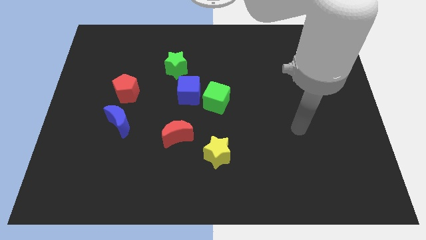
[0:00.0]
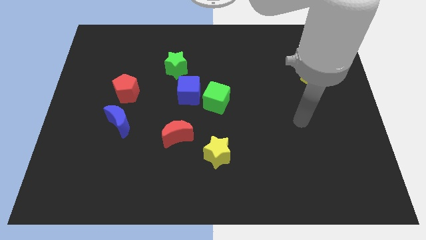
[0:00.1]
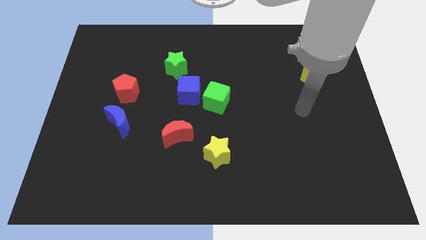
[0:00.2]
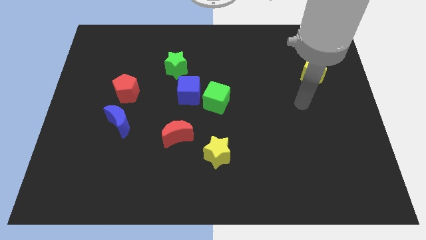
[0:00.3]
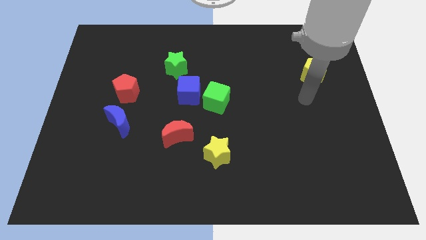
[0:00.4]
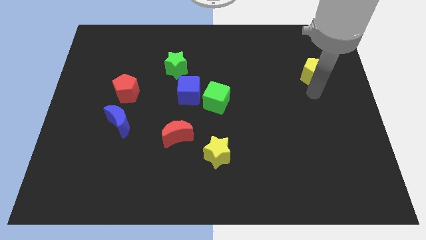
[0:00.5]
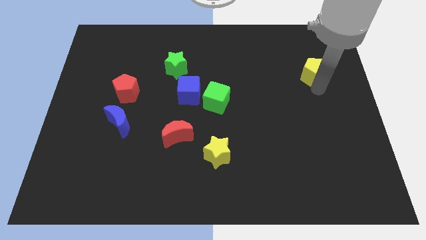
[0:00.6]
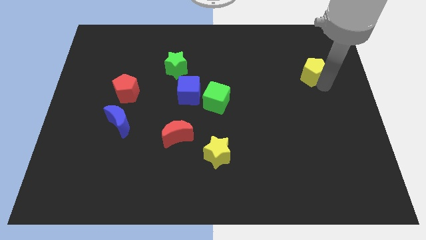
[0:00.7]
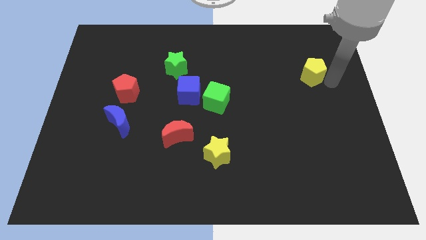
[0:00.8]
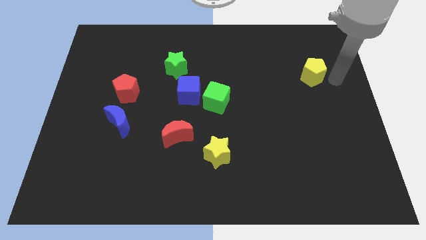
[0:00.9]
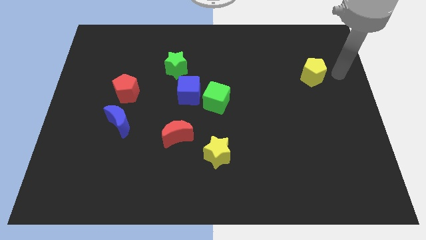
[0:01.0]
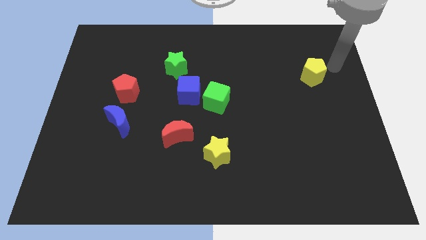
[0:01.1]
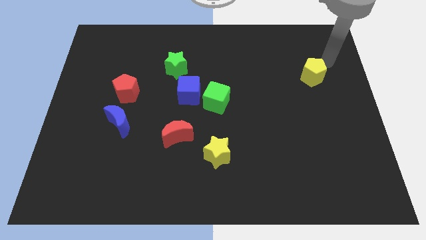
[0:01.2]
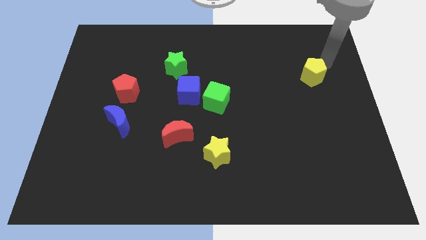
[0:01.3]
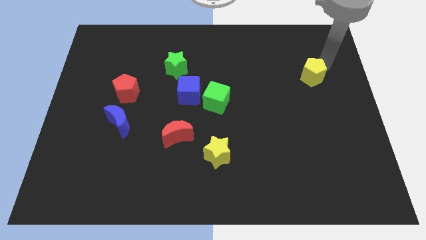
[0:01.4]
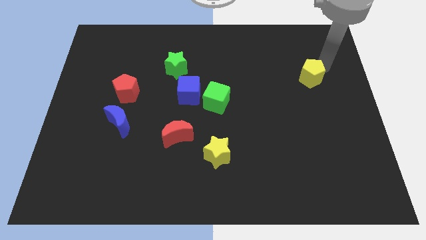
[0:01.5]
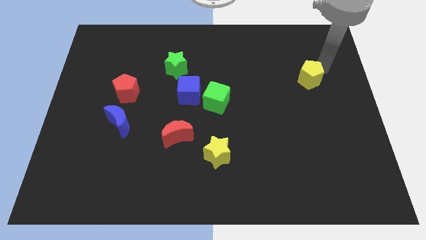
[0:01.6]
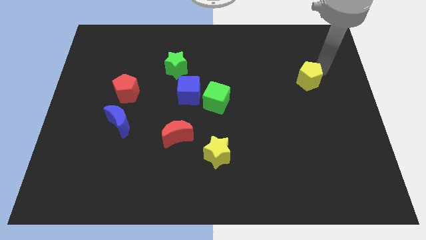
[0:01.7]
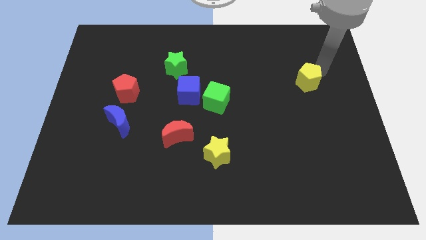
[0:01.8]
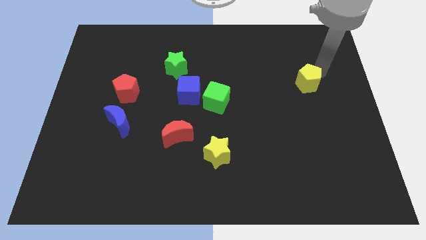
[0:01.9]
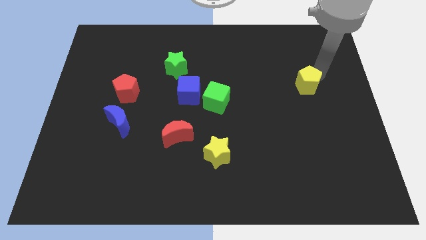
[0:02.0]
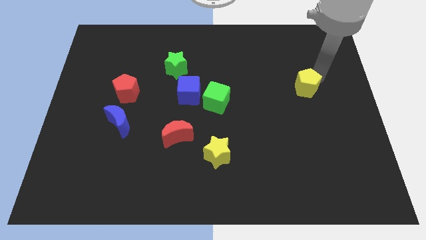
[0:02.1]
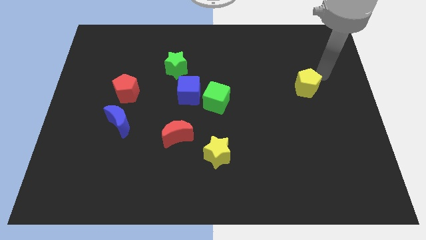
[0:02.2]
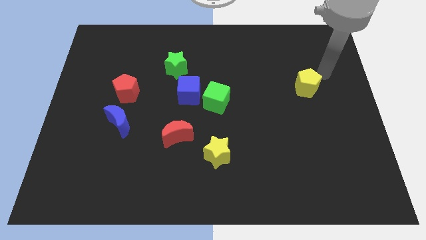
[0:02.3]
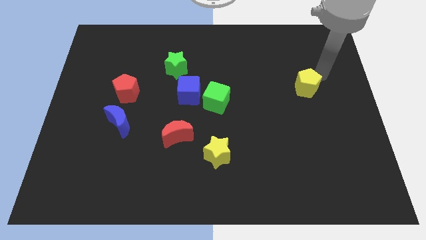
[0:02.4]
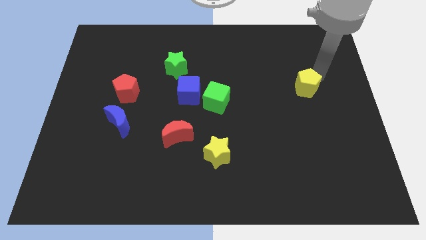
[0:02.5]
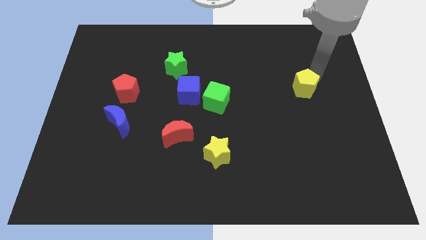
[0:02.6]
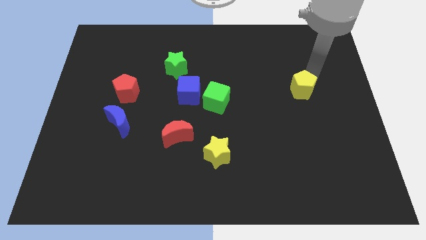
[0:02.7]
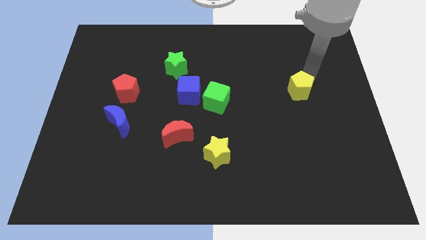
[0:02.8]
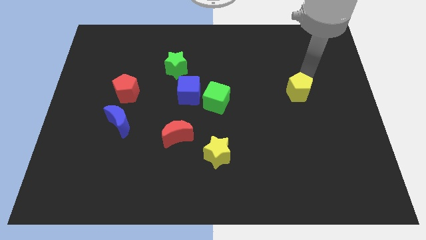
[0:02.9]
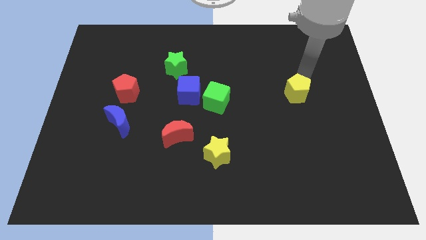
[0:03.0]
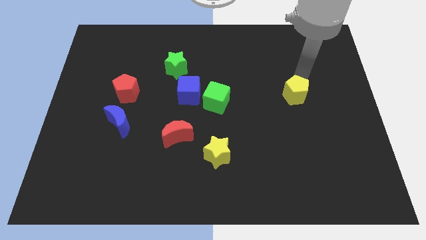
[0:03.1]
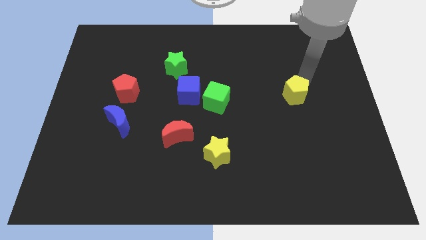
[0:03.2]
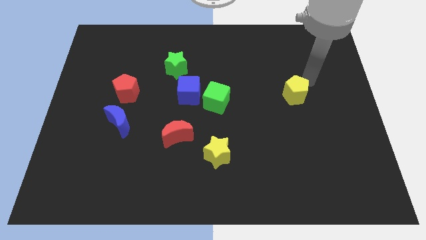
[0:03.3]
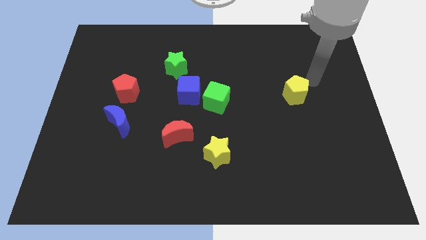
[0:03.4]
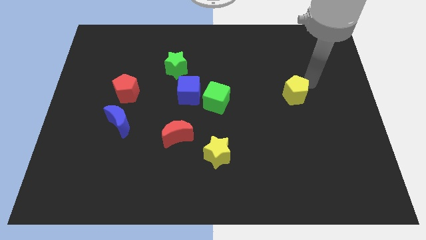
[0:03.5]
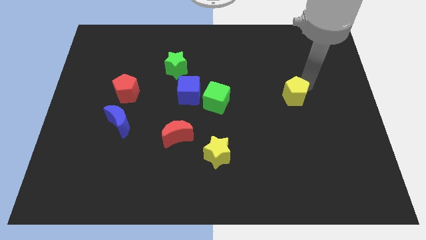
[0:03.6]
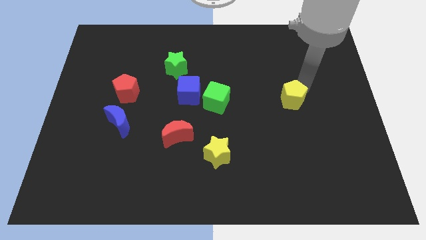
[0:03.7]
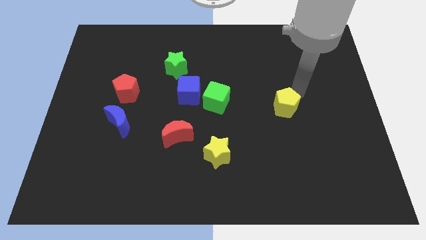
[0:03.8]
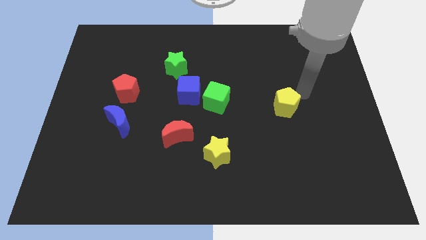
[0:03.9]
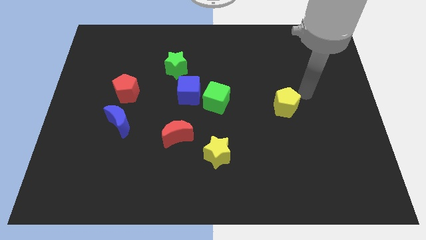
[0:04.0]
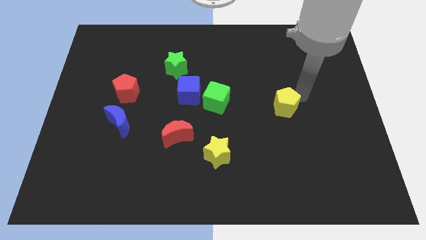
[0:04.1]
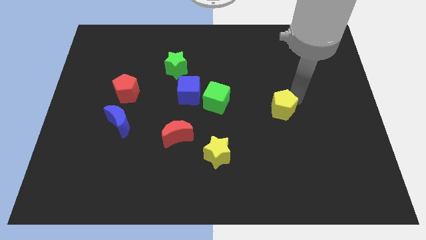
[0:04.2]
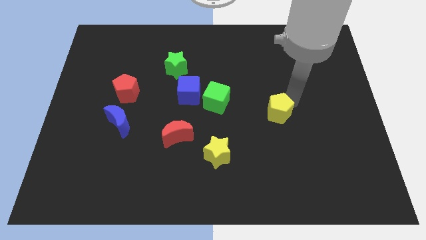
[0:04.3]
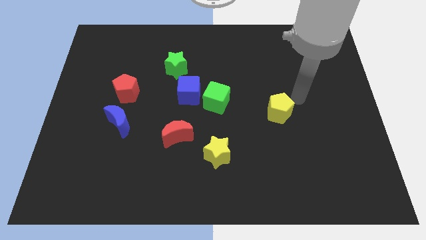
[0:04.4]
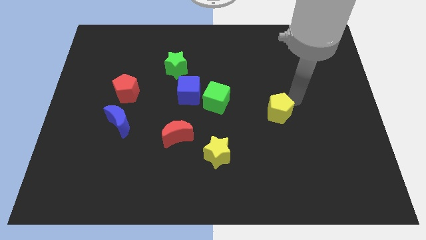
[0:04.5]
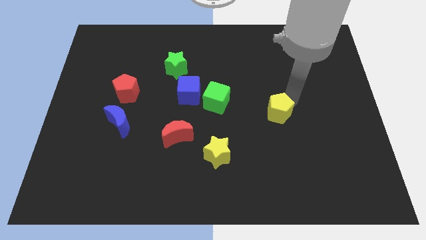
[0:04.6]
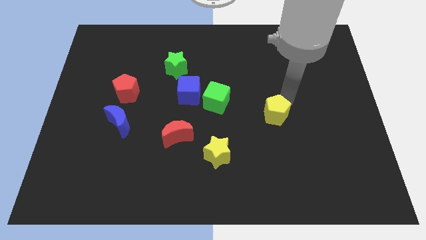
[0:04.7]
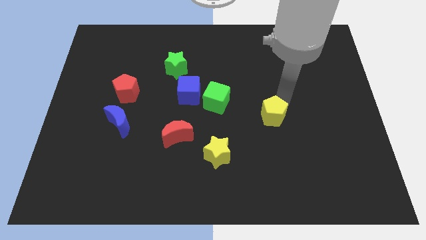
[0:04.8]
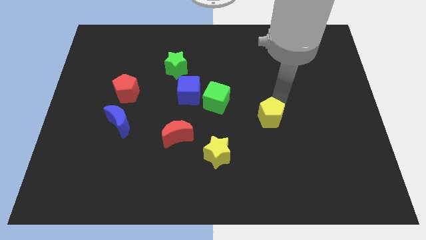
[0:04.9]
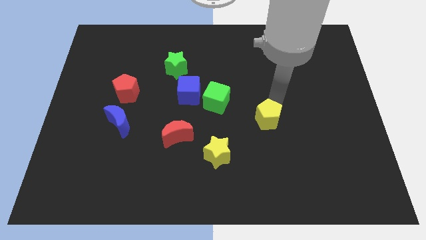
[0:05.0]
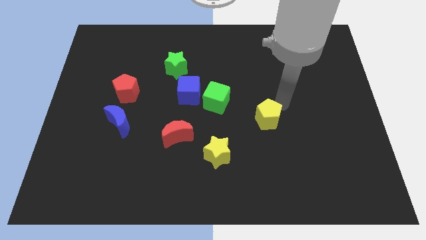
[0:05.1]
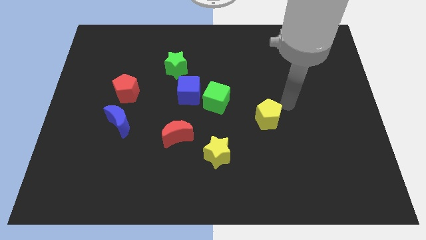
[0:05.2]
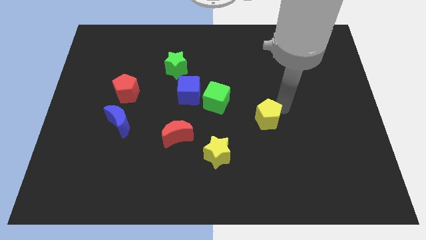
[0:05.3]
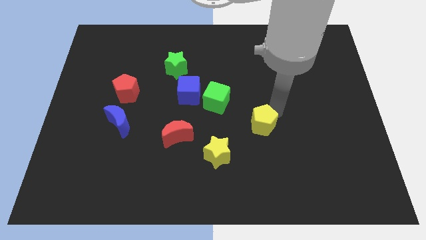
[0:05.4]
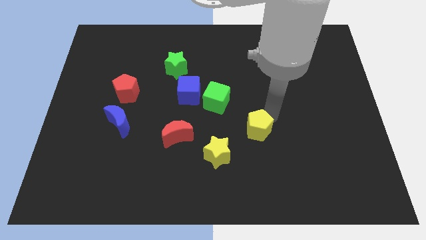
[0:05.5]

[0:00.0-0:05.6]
move the yellow pentagon to the top right of the yellow star

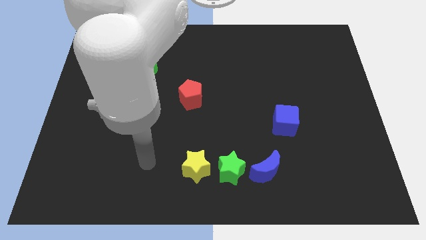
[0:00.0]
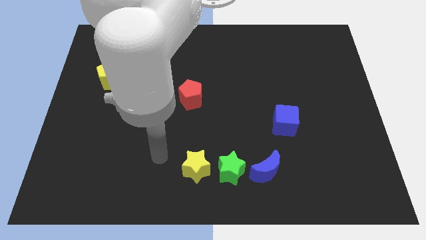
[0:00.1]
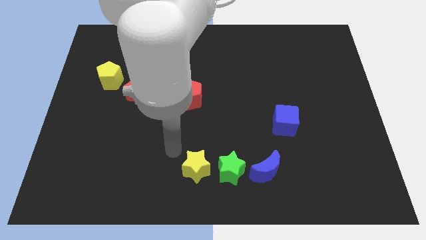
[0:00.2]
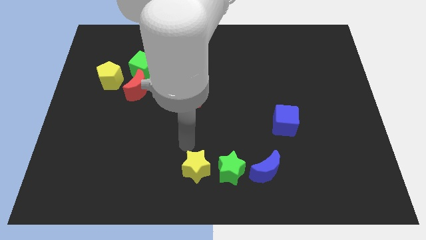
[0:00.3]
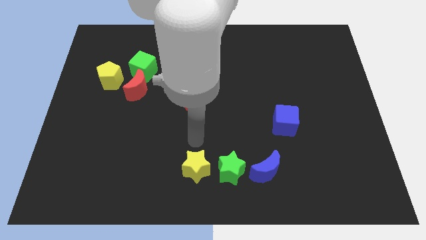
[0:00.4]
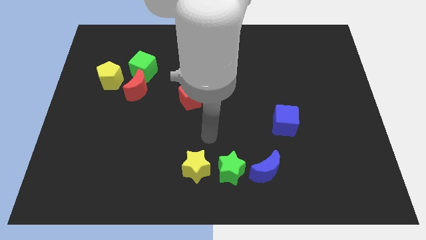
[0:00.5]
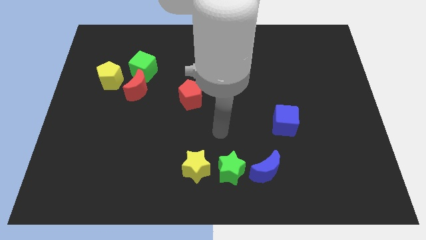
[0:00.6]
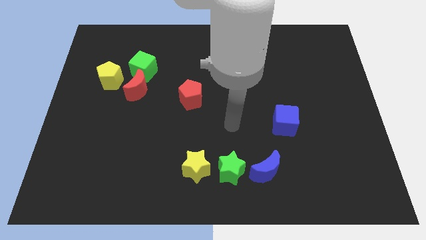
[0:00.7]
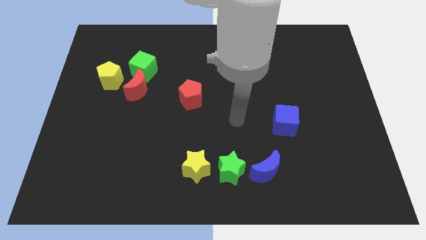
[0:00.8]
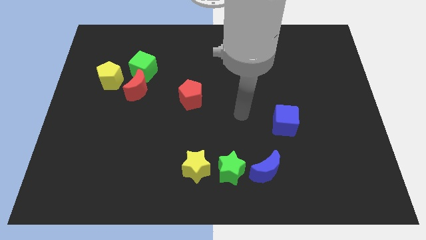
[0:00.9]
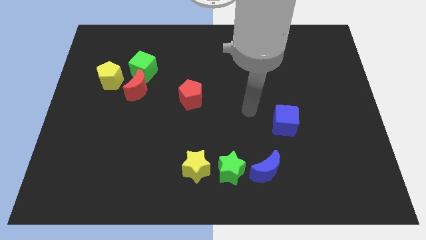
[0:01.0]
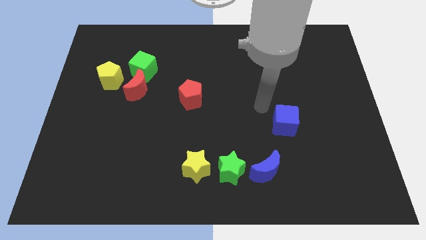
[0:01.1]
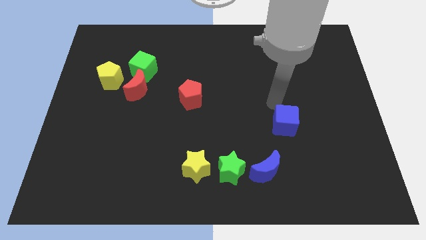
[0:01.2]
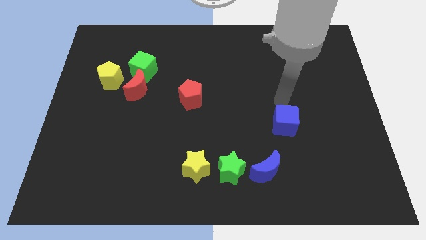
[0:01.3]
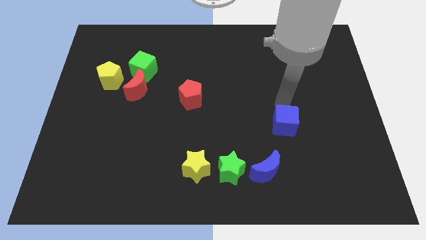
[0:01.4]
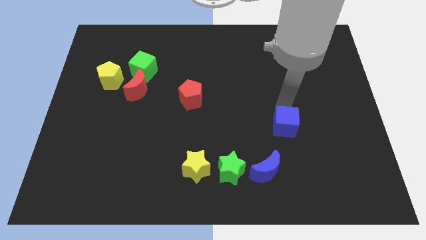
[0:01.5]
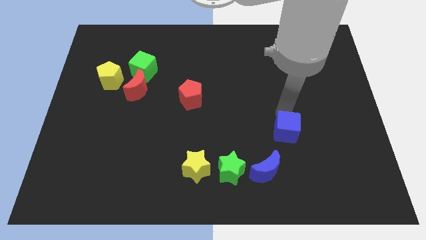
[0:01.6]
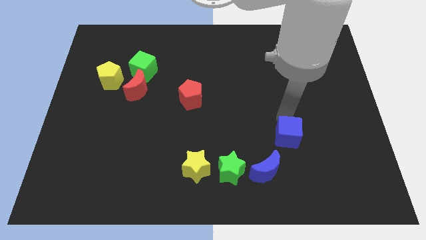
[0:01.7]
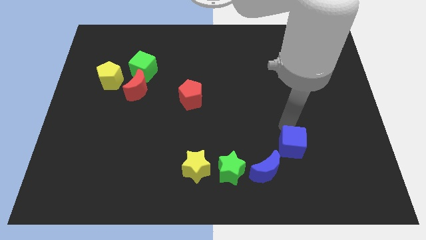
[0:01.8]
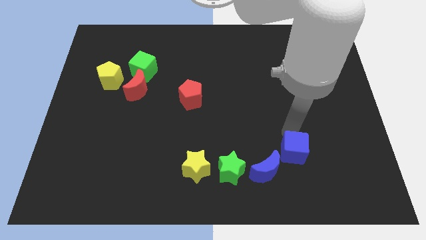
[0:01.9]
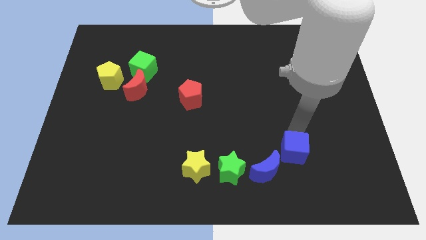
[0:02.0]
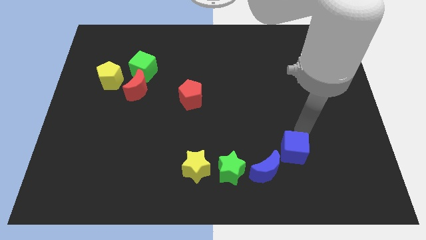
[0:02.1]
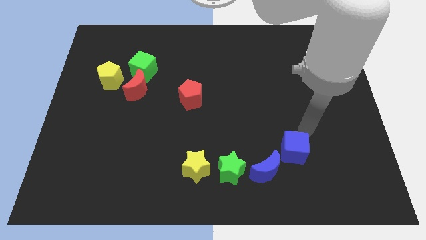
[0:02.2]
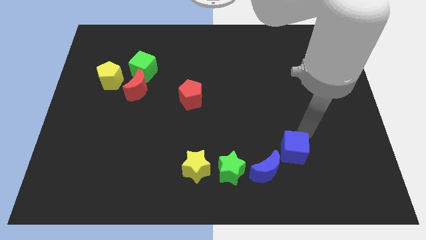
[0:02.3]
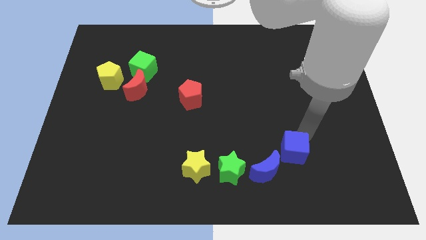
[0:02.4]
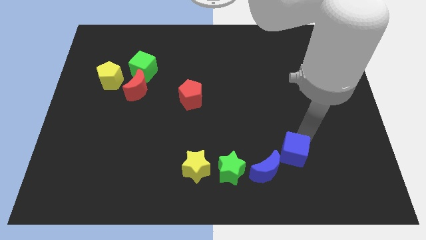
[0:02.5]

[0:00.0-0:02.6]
move the blue cube just right of the green star
